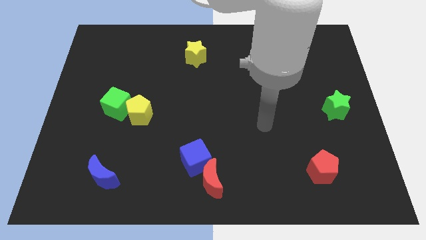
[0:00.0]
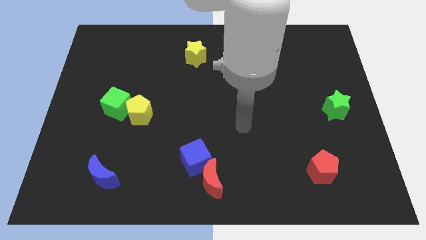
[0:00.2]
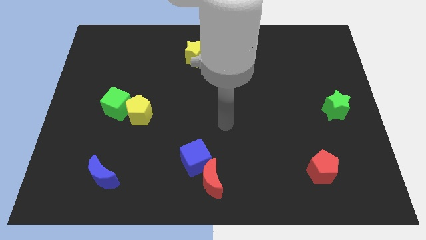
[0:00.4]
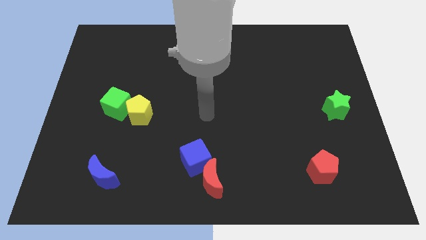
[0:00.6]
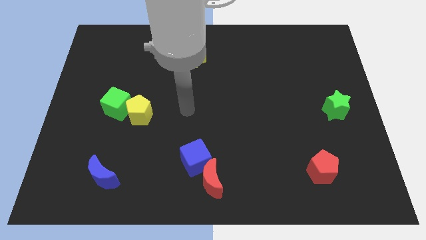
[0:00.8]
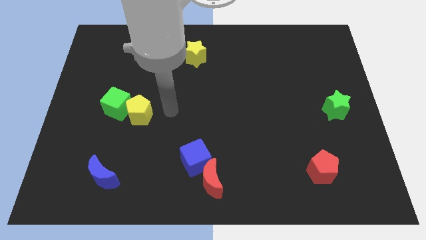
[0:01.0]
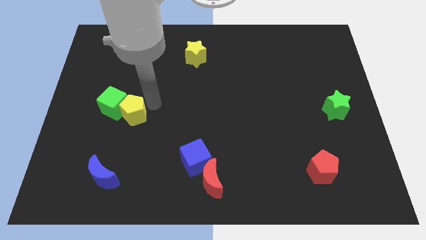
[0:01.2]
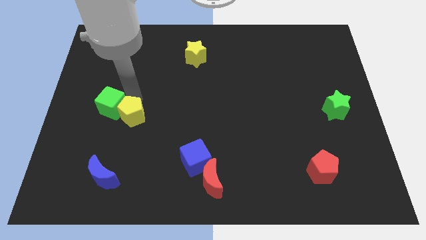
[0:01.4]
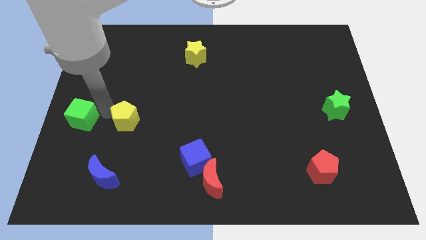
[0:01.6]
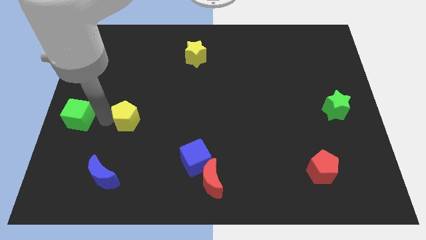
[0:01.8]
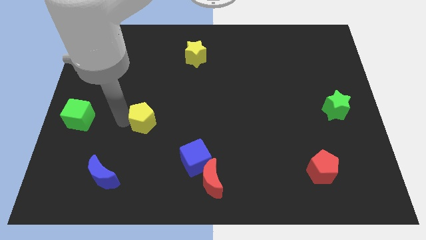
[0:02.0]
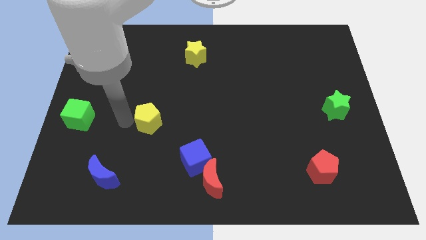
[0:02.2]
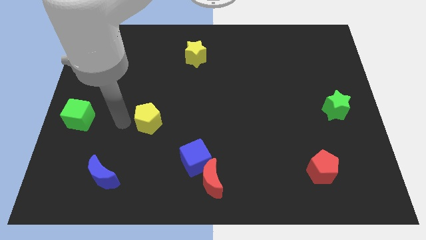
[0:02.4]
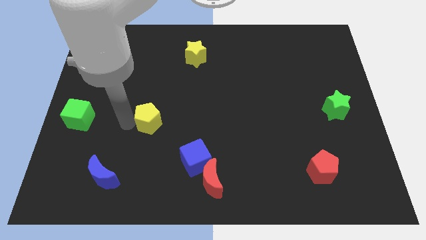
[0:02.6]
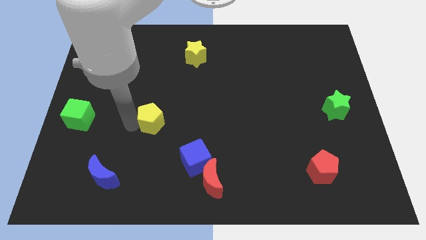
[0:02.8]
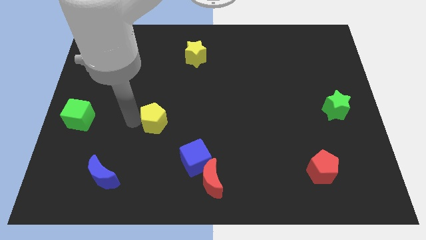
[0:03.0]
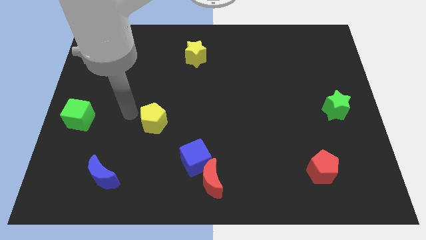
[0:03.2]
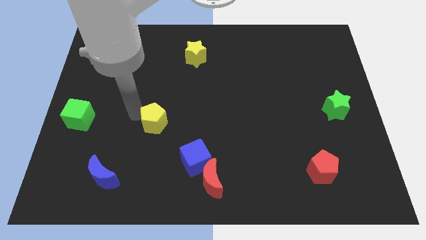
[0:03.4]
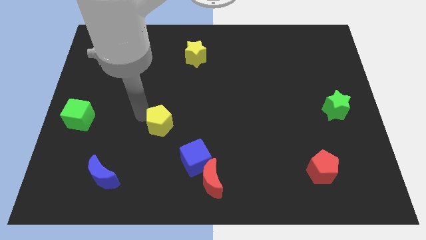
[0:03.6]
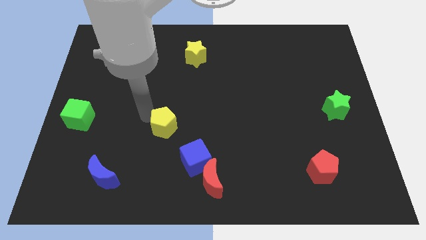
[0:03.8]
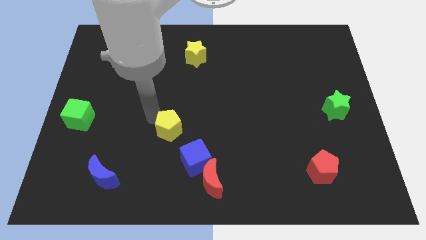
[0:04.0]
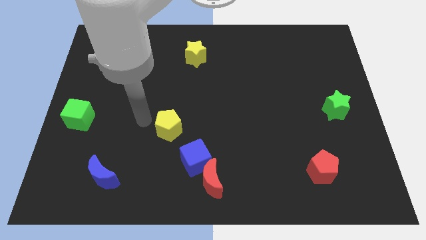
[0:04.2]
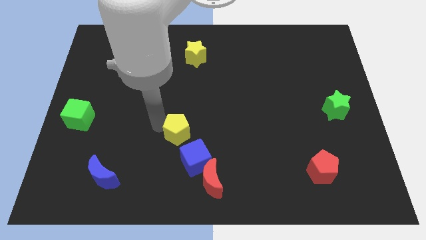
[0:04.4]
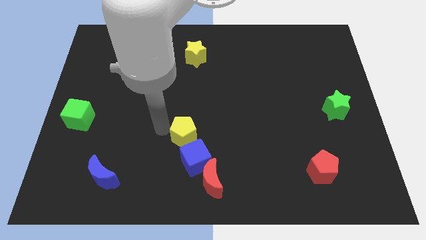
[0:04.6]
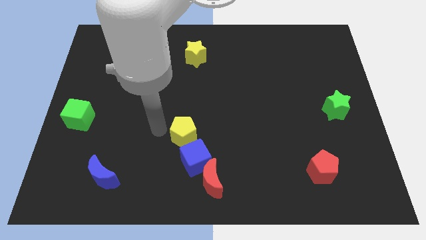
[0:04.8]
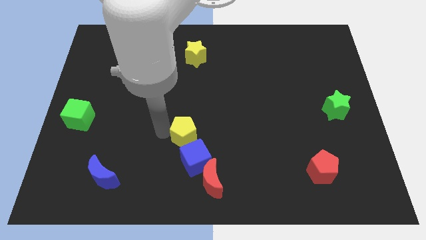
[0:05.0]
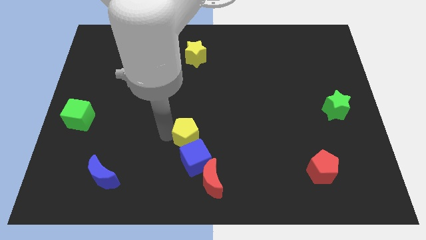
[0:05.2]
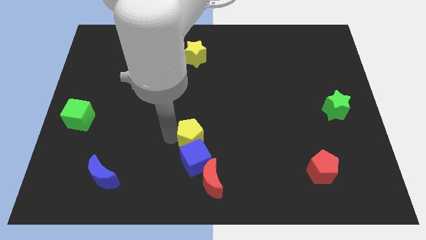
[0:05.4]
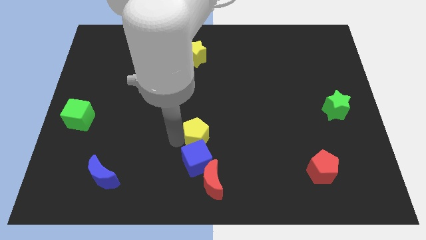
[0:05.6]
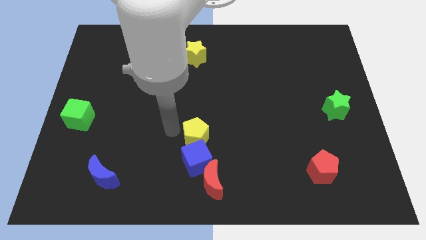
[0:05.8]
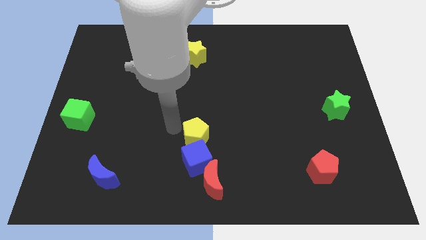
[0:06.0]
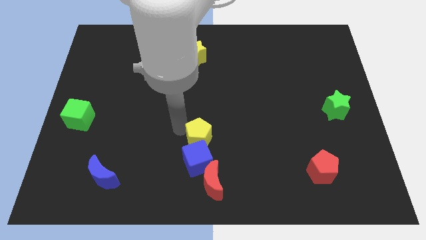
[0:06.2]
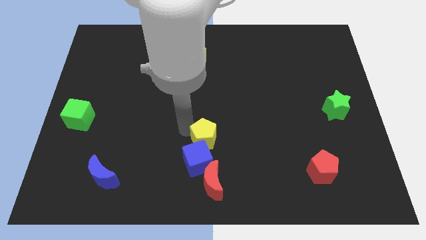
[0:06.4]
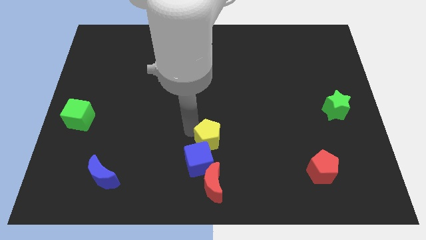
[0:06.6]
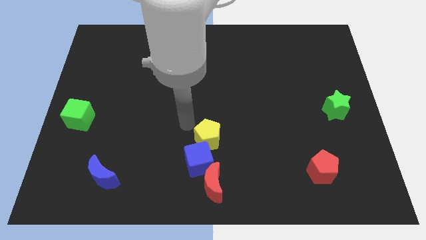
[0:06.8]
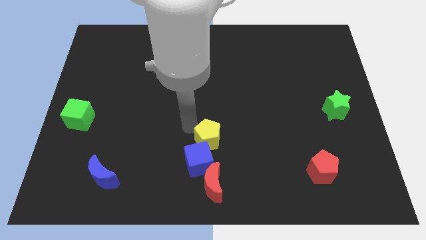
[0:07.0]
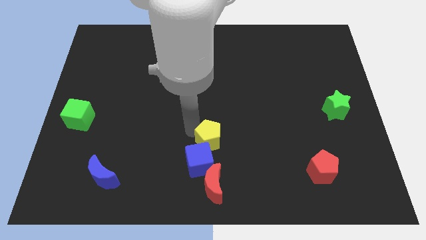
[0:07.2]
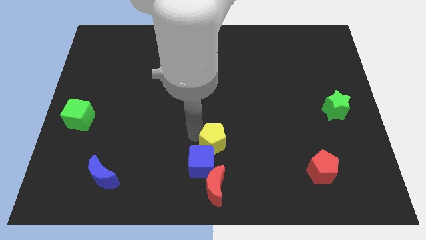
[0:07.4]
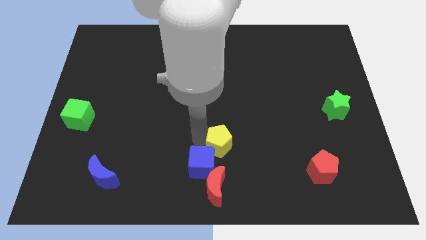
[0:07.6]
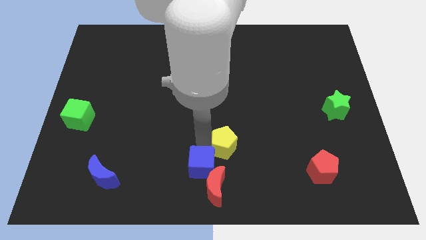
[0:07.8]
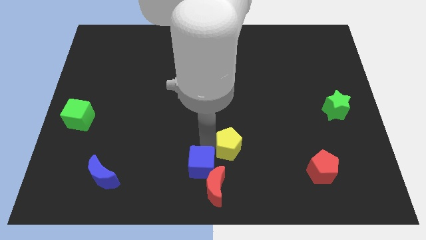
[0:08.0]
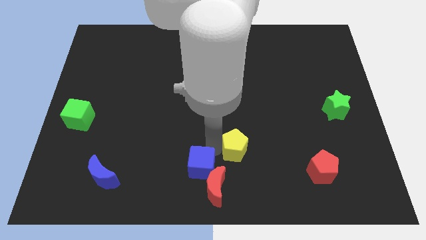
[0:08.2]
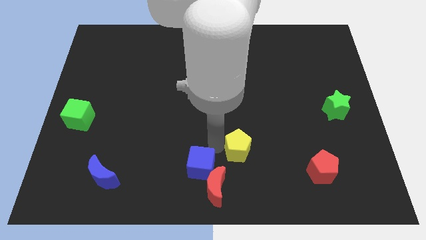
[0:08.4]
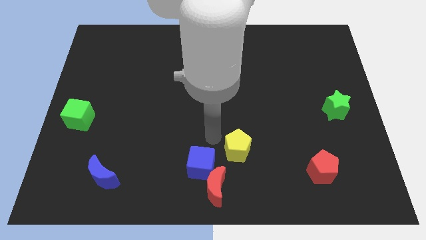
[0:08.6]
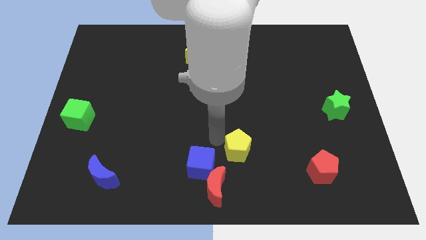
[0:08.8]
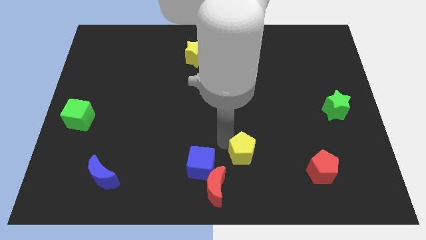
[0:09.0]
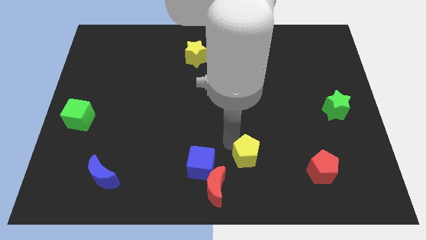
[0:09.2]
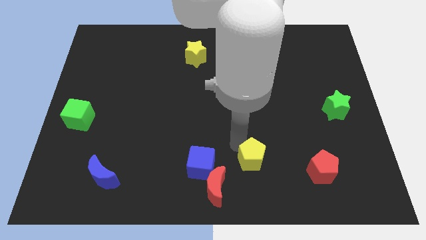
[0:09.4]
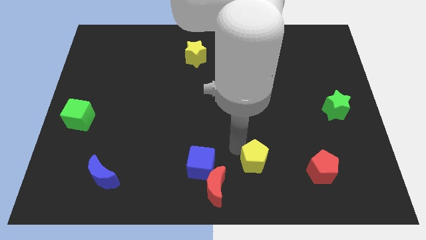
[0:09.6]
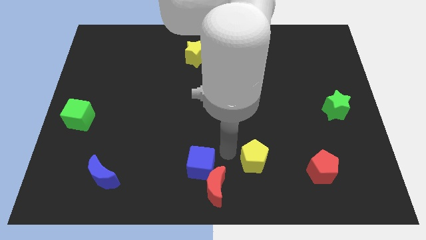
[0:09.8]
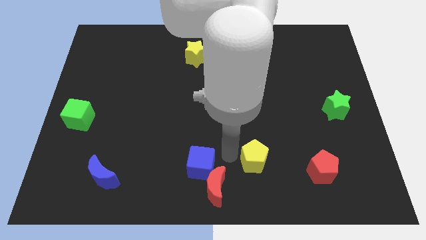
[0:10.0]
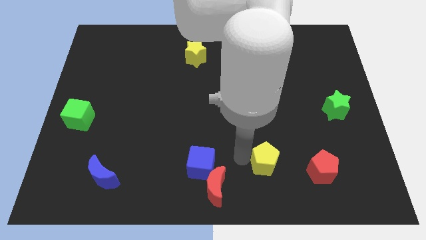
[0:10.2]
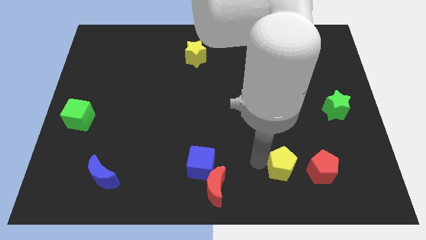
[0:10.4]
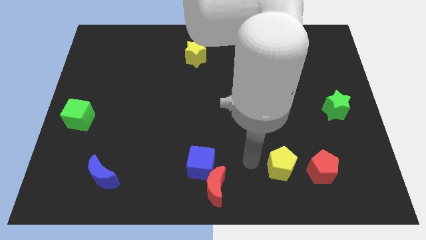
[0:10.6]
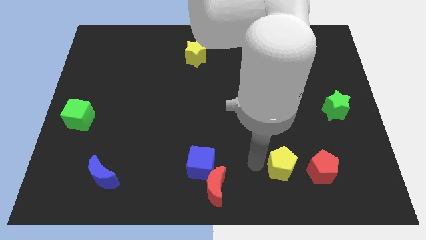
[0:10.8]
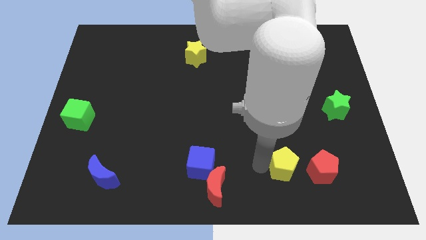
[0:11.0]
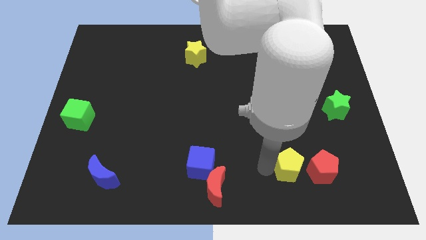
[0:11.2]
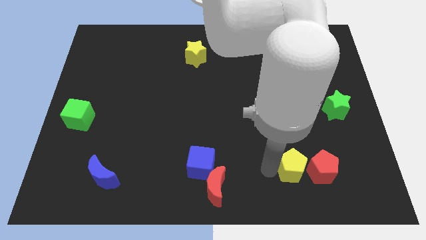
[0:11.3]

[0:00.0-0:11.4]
slide the yellow pentagon close to the red pentagon

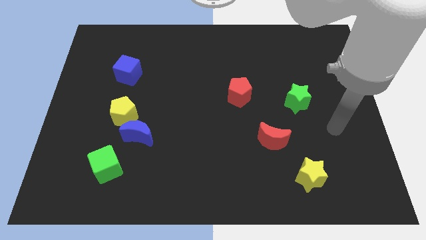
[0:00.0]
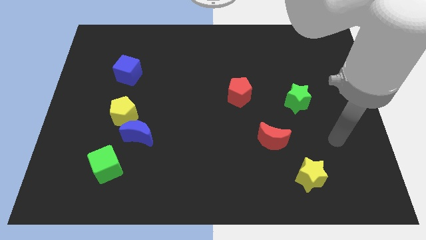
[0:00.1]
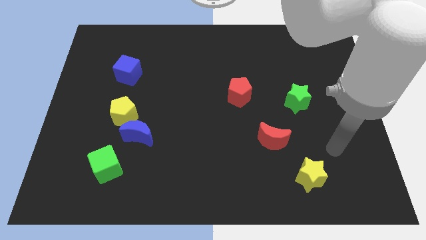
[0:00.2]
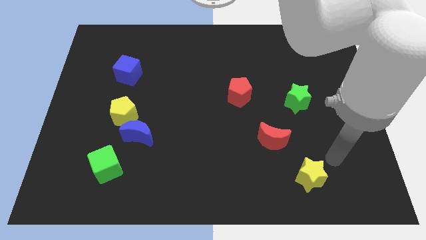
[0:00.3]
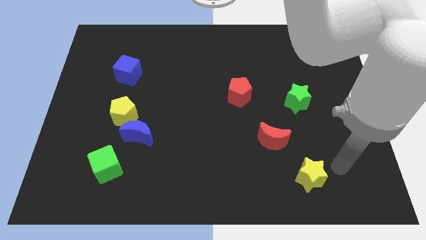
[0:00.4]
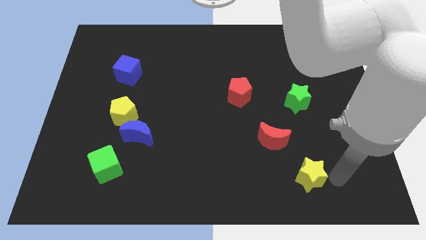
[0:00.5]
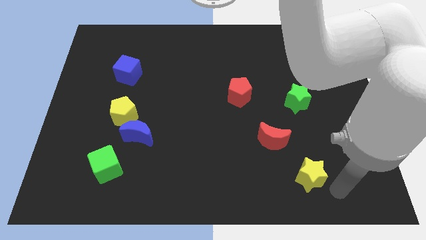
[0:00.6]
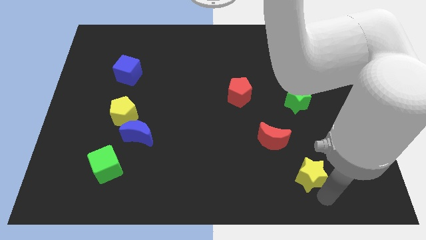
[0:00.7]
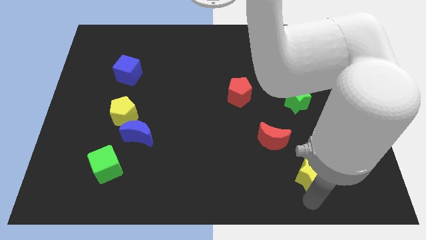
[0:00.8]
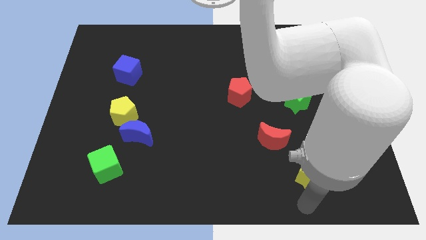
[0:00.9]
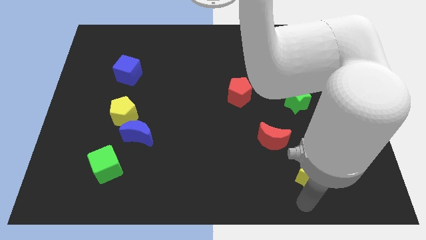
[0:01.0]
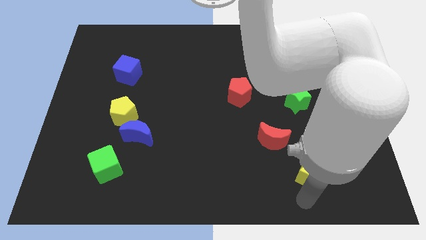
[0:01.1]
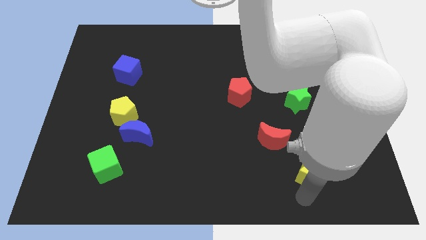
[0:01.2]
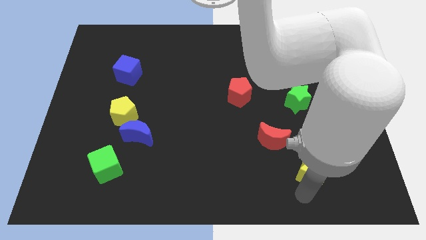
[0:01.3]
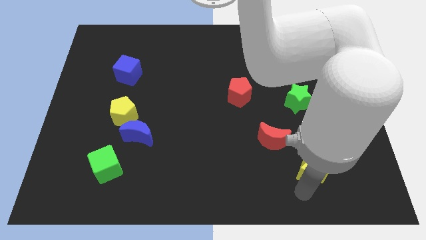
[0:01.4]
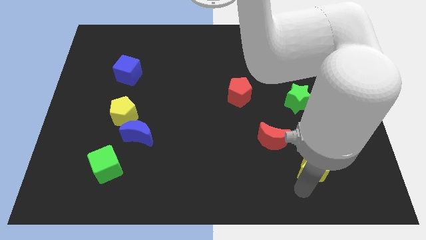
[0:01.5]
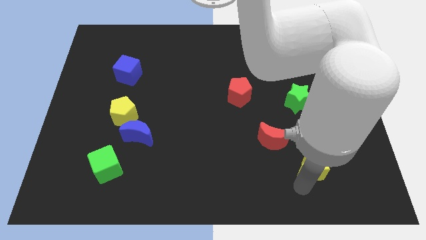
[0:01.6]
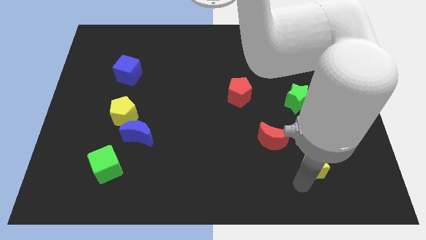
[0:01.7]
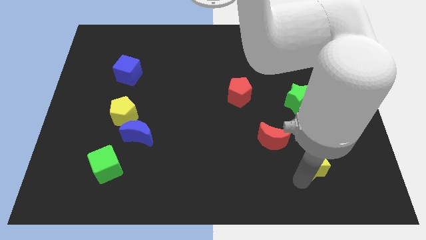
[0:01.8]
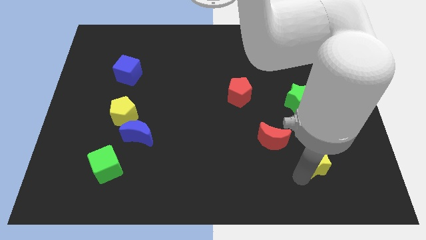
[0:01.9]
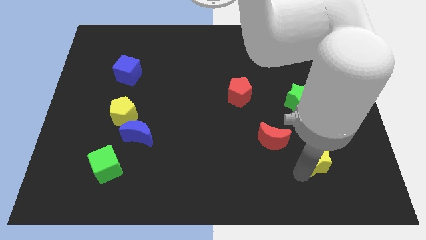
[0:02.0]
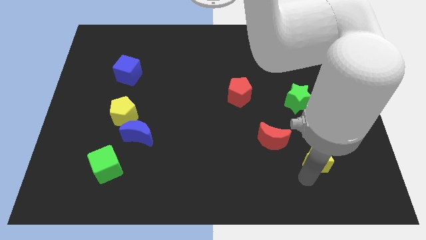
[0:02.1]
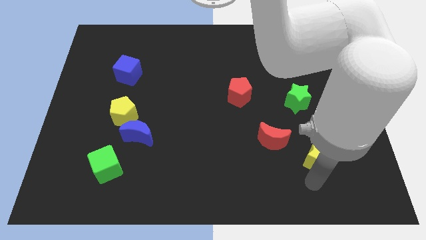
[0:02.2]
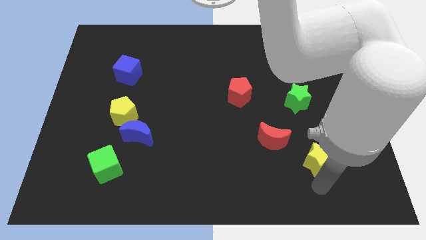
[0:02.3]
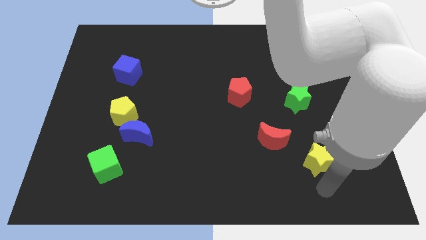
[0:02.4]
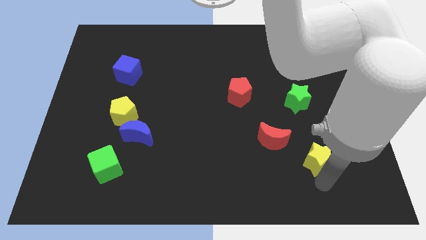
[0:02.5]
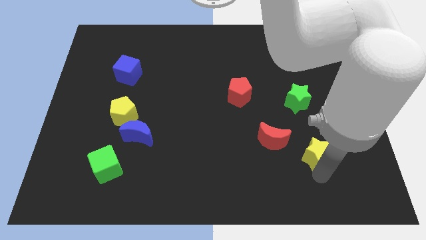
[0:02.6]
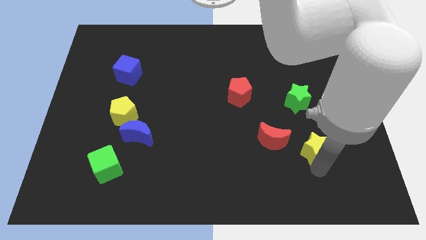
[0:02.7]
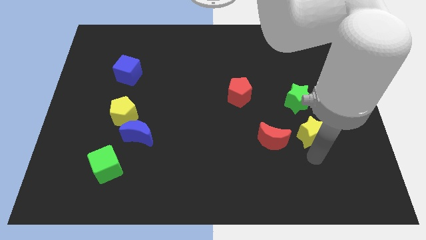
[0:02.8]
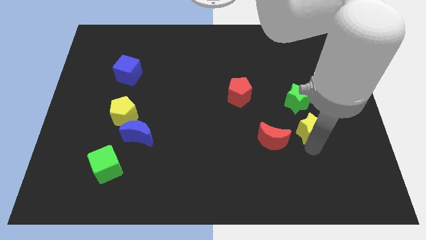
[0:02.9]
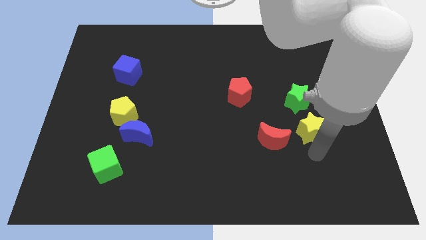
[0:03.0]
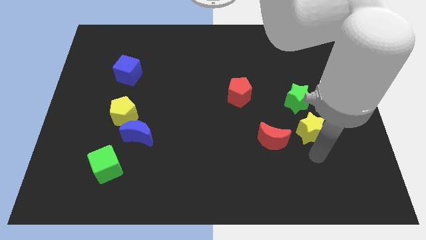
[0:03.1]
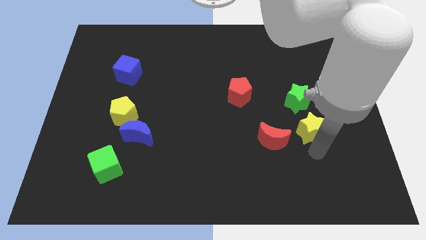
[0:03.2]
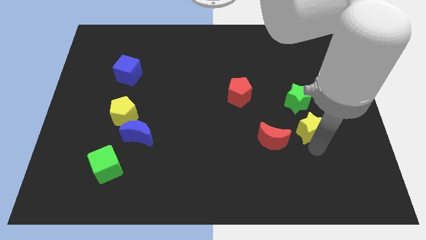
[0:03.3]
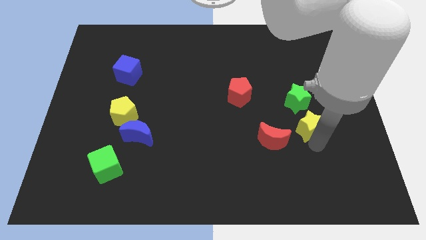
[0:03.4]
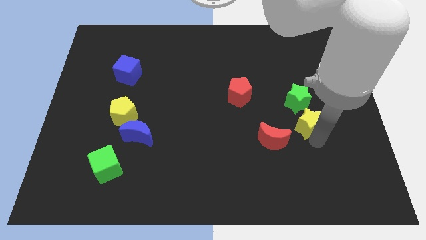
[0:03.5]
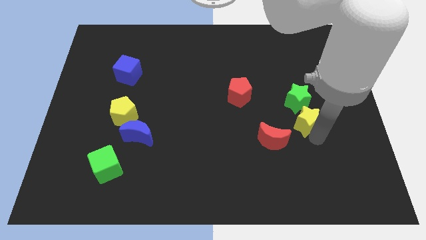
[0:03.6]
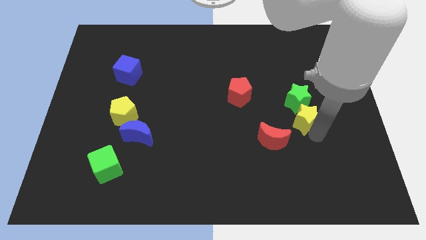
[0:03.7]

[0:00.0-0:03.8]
push the yellow star next to the green star
